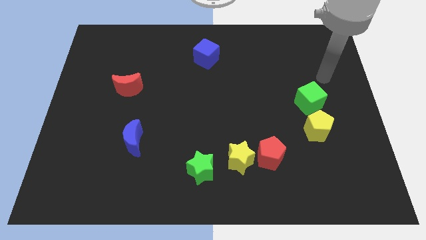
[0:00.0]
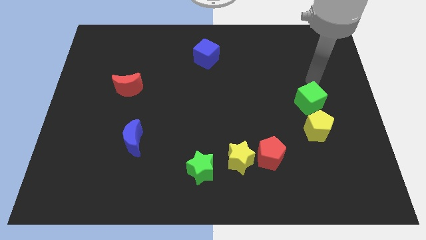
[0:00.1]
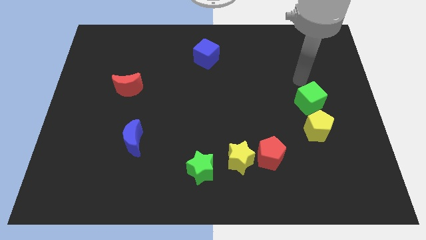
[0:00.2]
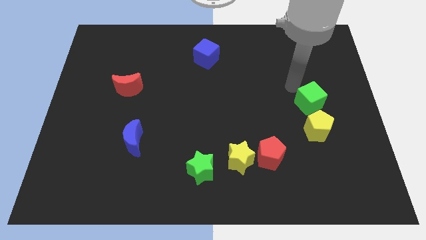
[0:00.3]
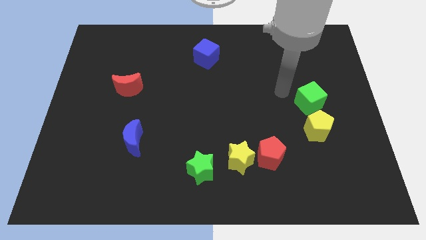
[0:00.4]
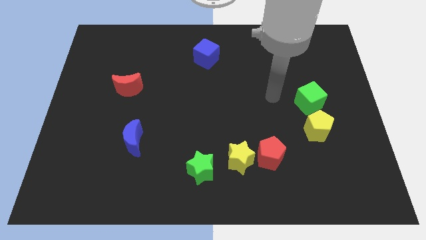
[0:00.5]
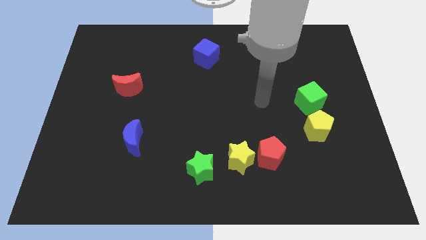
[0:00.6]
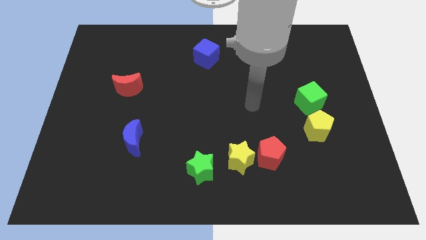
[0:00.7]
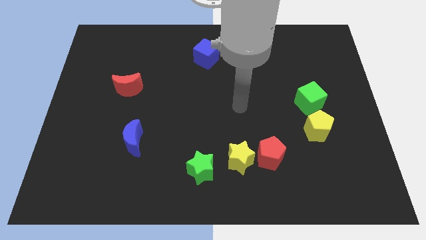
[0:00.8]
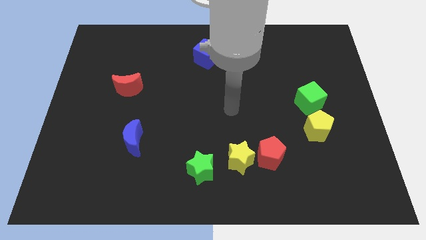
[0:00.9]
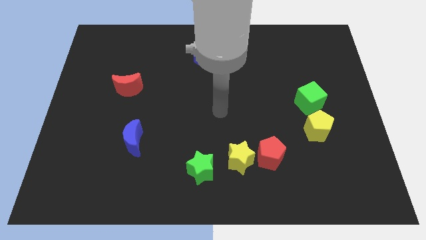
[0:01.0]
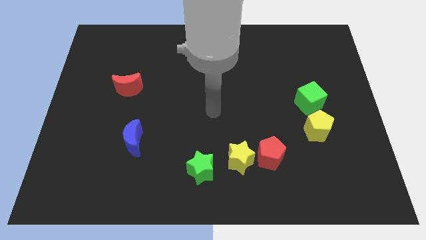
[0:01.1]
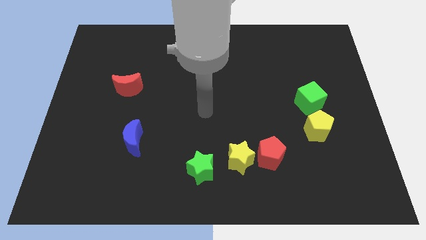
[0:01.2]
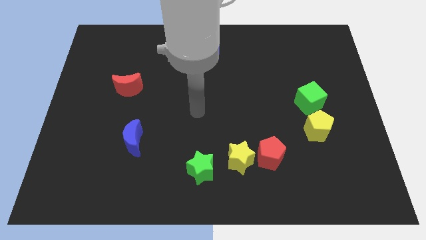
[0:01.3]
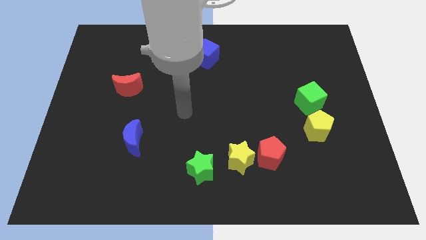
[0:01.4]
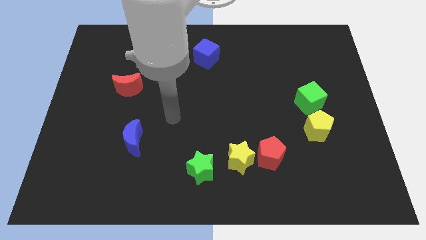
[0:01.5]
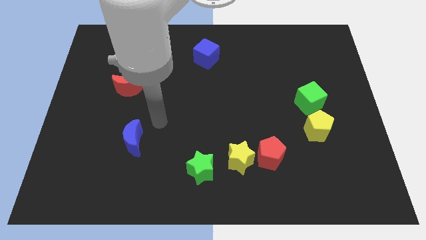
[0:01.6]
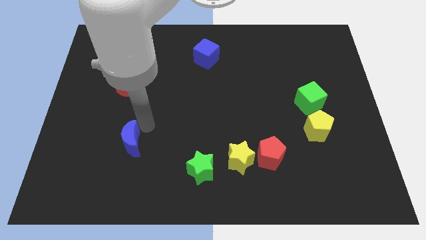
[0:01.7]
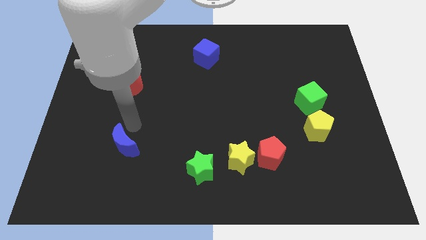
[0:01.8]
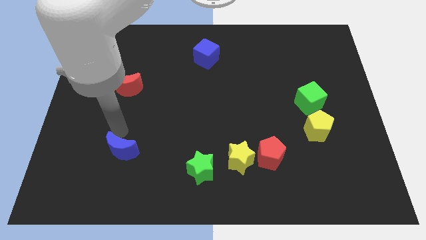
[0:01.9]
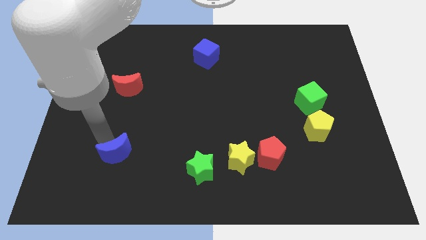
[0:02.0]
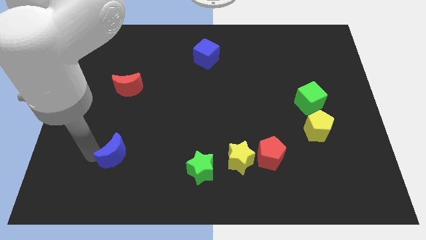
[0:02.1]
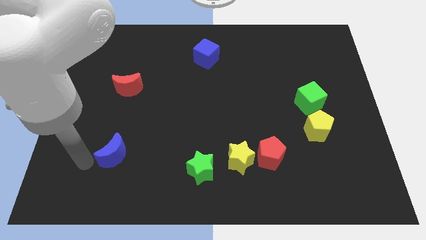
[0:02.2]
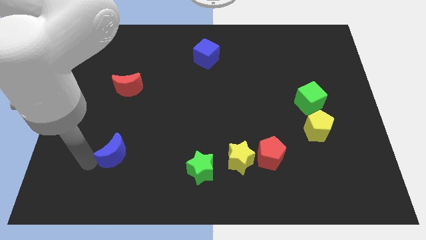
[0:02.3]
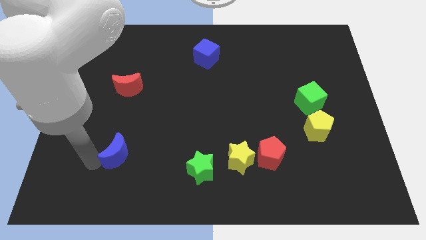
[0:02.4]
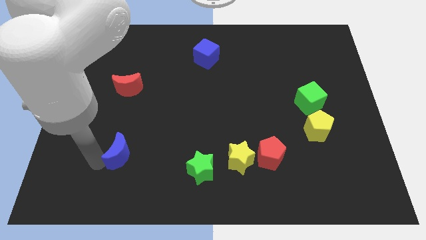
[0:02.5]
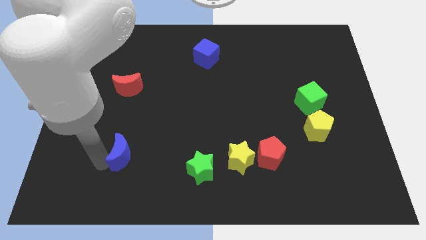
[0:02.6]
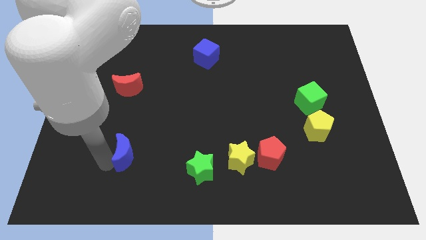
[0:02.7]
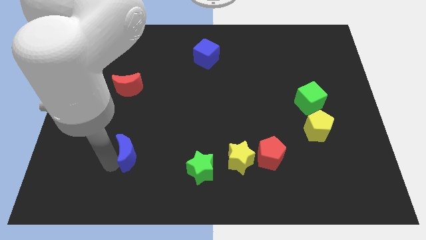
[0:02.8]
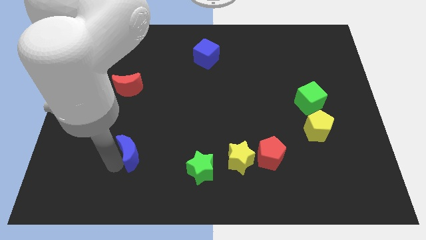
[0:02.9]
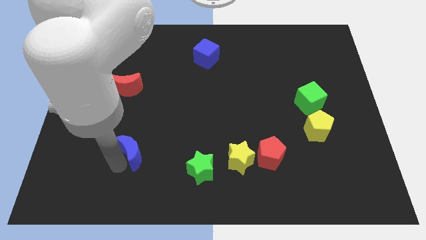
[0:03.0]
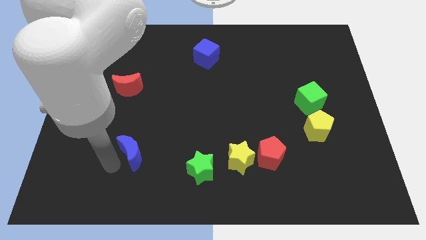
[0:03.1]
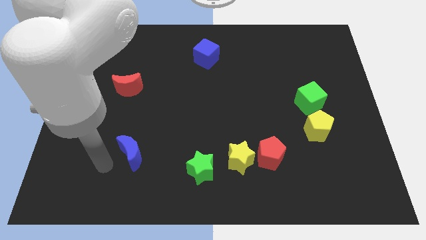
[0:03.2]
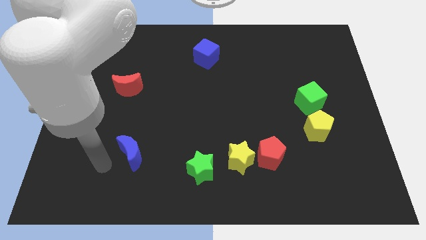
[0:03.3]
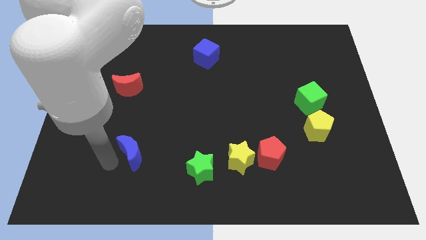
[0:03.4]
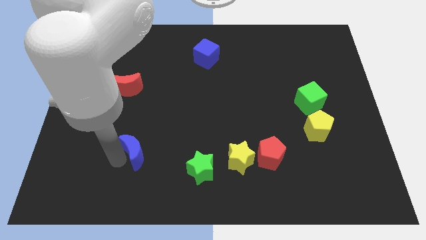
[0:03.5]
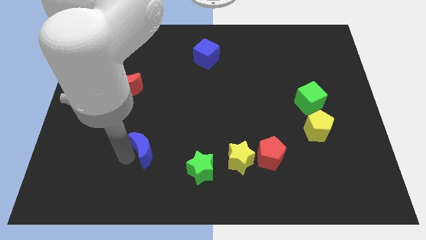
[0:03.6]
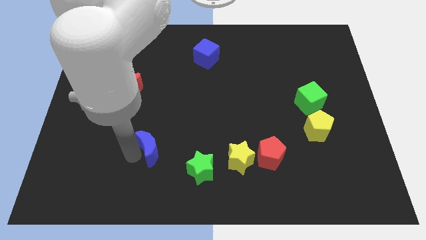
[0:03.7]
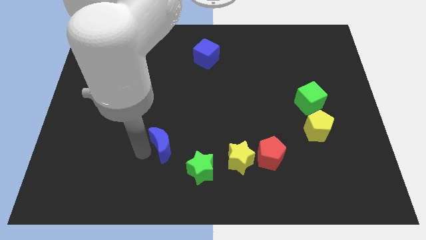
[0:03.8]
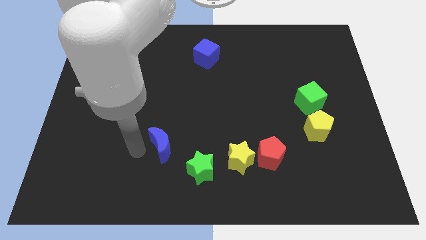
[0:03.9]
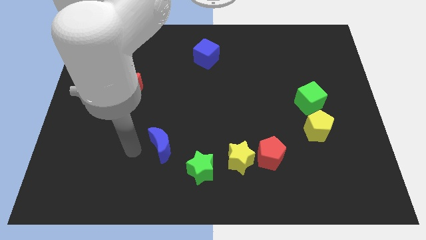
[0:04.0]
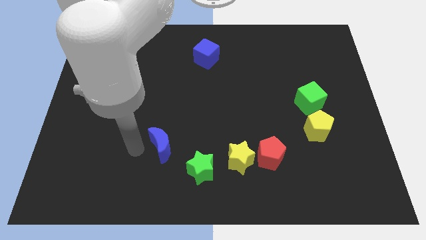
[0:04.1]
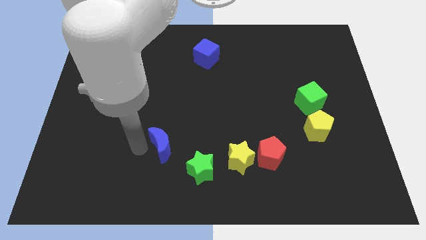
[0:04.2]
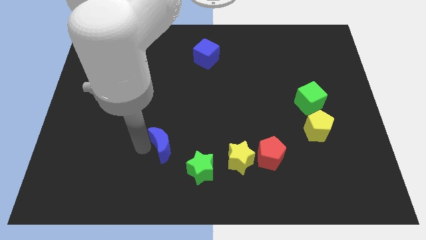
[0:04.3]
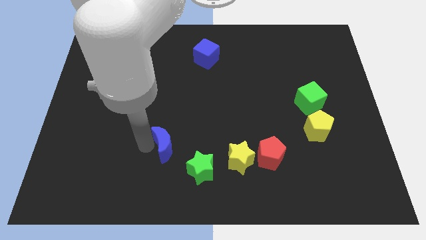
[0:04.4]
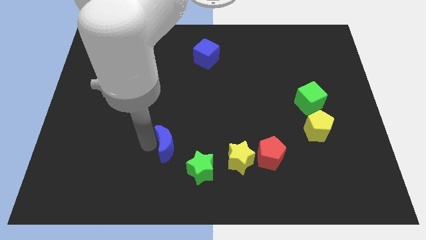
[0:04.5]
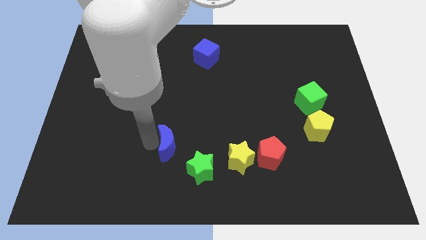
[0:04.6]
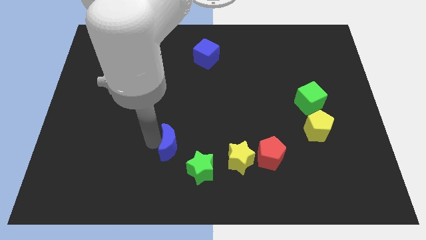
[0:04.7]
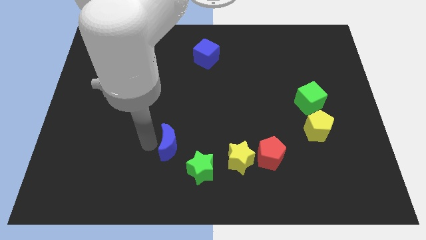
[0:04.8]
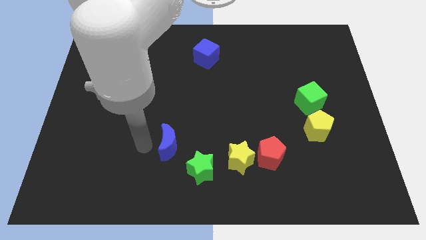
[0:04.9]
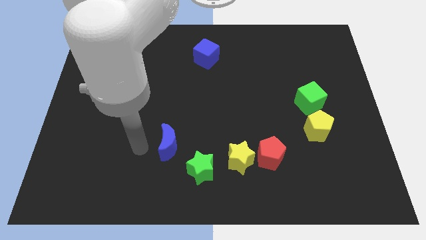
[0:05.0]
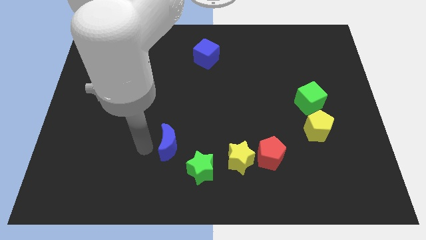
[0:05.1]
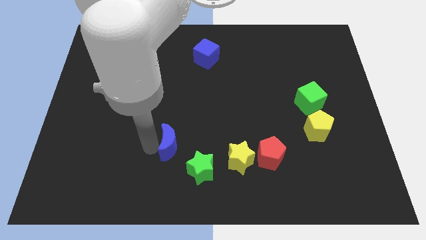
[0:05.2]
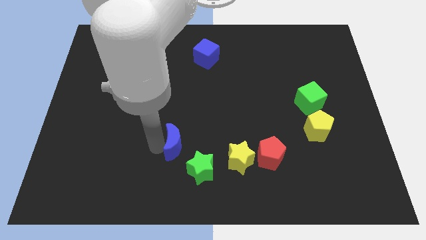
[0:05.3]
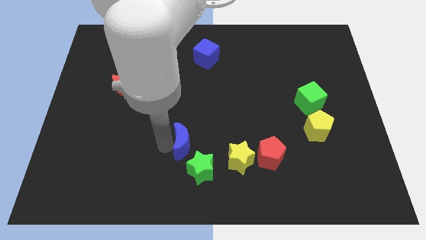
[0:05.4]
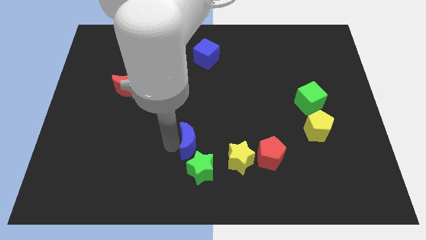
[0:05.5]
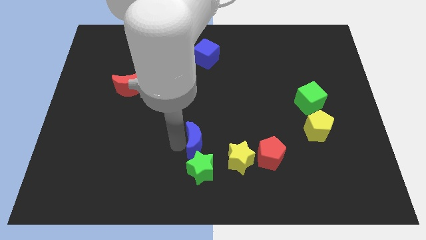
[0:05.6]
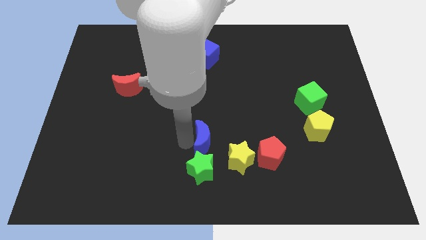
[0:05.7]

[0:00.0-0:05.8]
move the blue moon to the left of the red pentagon
